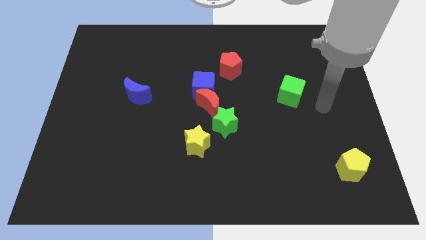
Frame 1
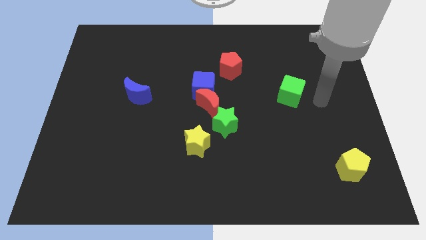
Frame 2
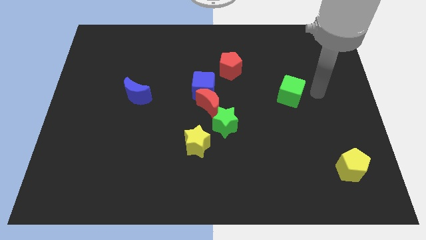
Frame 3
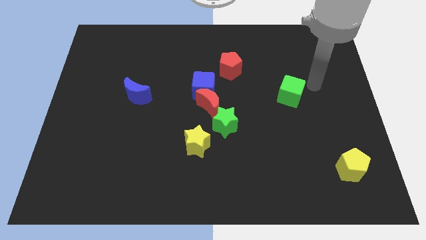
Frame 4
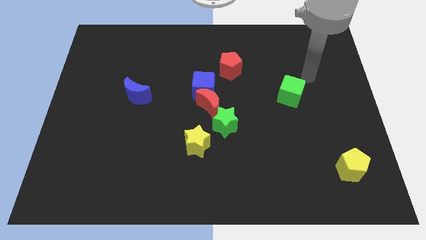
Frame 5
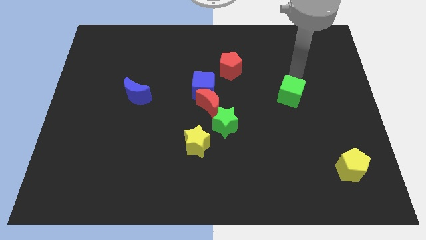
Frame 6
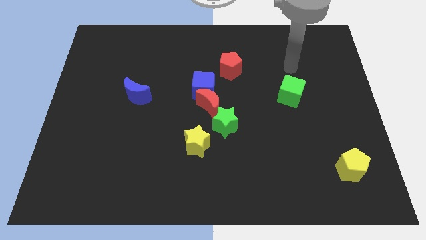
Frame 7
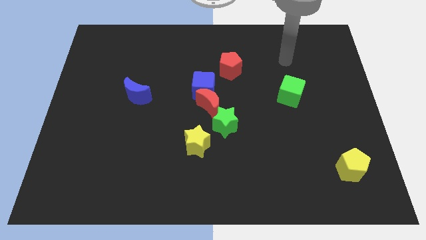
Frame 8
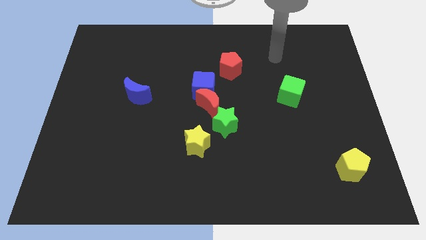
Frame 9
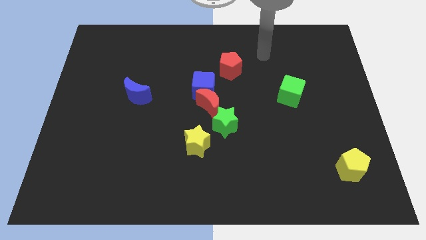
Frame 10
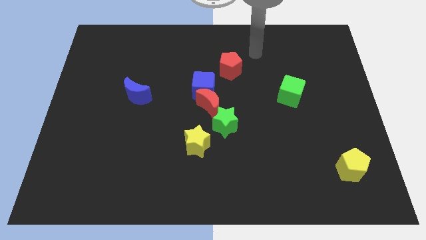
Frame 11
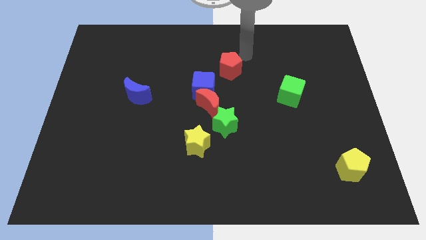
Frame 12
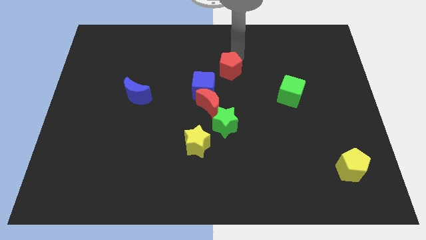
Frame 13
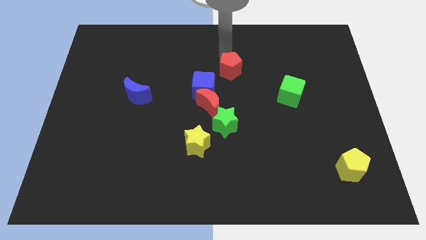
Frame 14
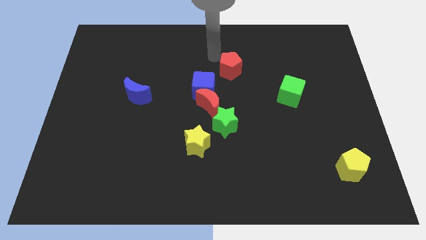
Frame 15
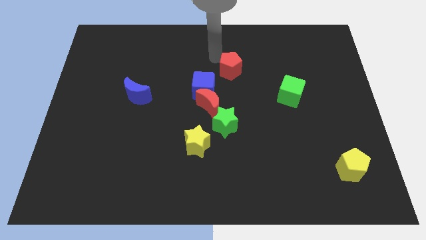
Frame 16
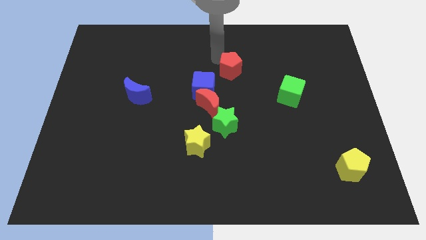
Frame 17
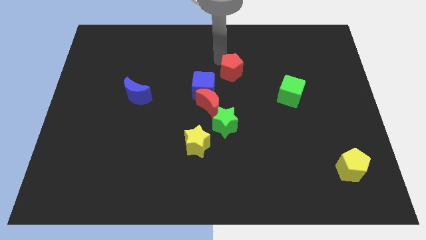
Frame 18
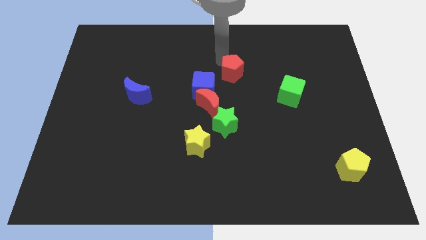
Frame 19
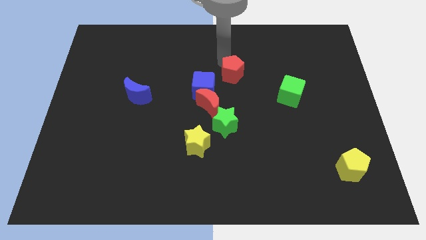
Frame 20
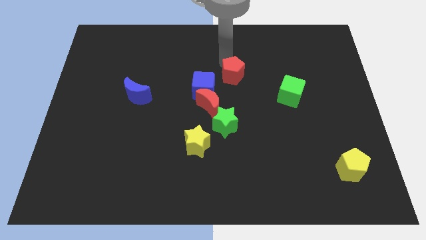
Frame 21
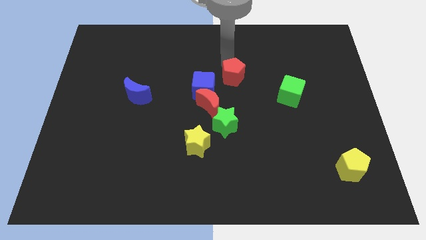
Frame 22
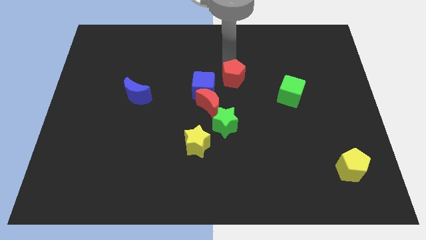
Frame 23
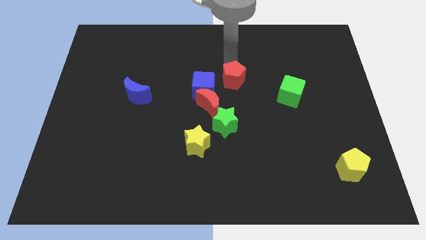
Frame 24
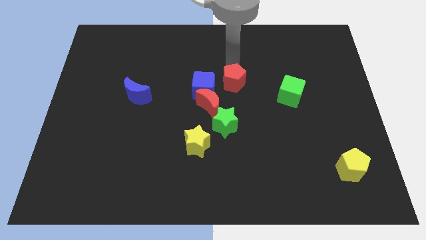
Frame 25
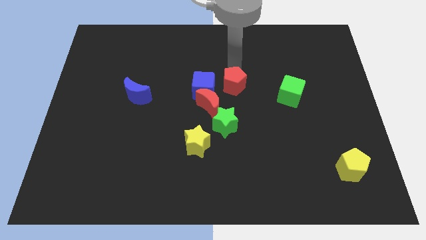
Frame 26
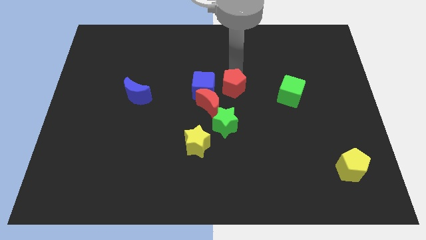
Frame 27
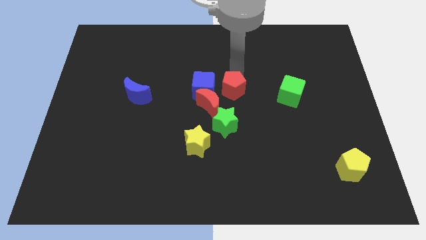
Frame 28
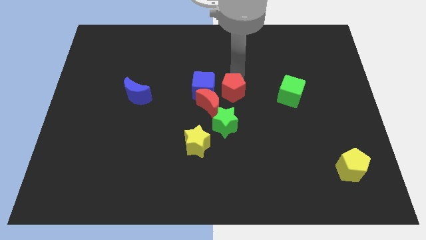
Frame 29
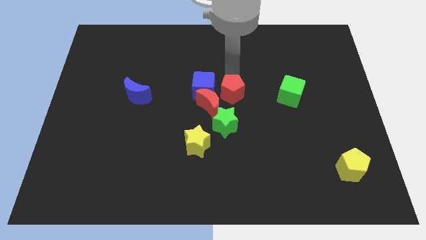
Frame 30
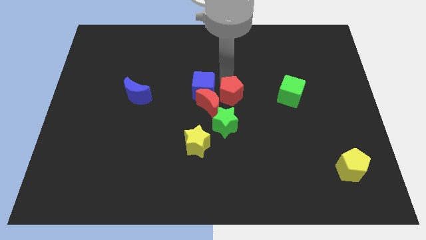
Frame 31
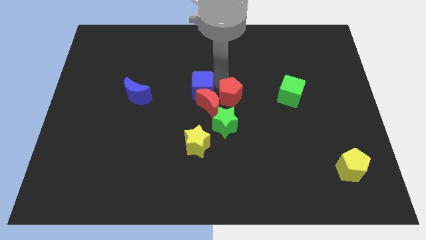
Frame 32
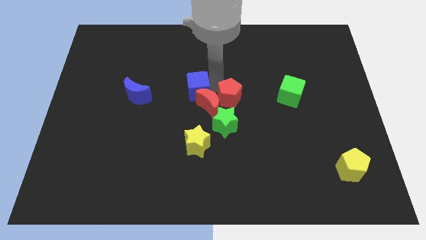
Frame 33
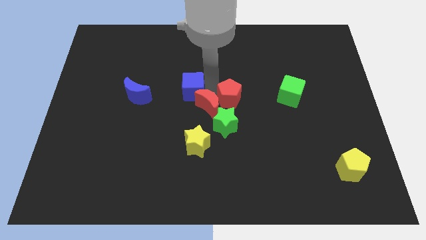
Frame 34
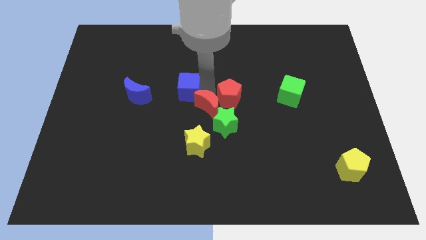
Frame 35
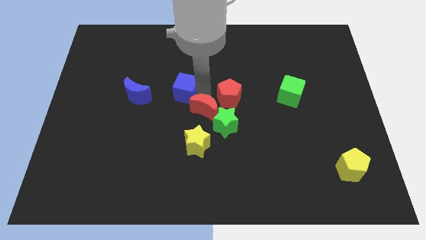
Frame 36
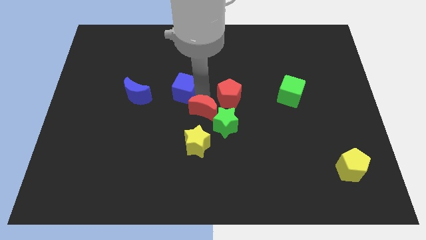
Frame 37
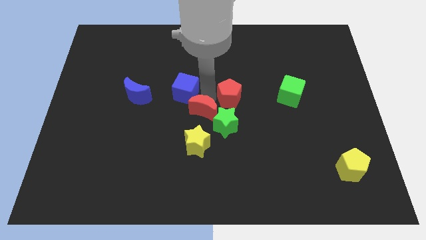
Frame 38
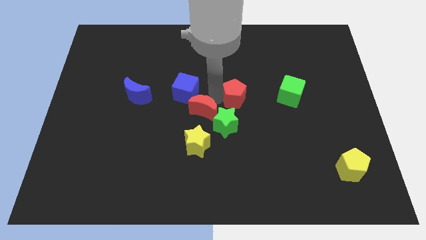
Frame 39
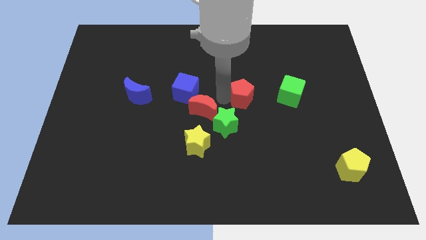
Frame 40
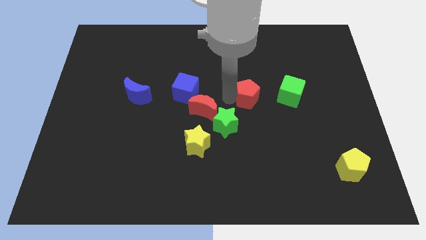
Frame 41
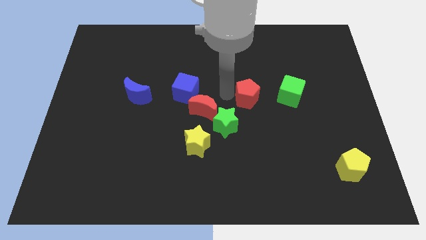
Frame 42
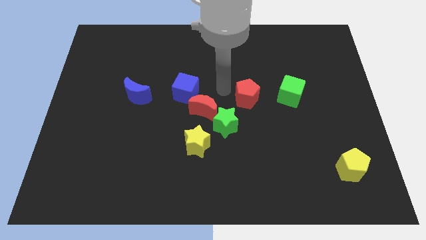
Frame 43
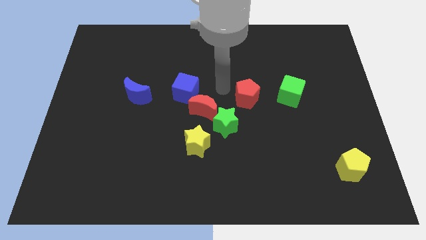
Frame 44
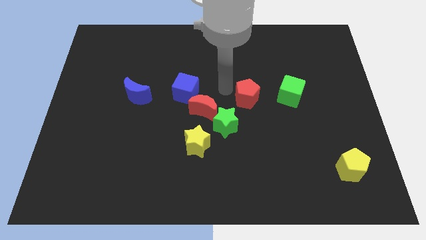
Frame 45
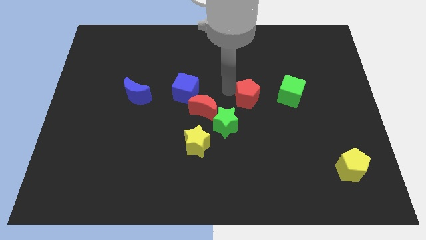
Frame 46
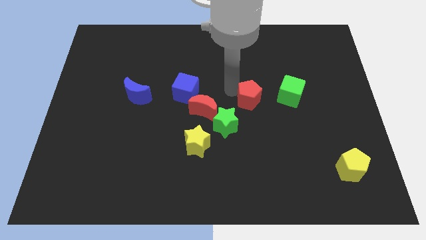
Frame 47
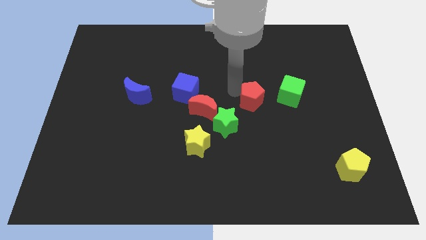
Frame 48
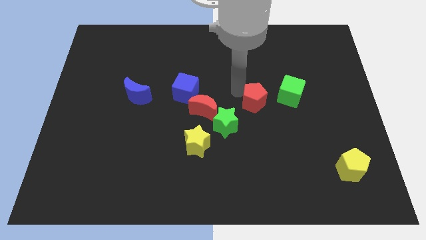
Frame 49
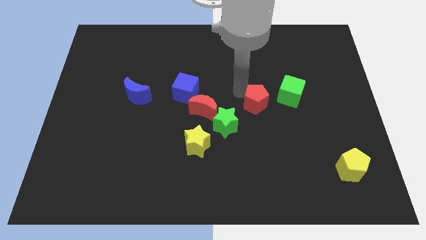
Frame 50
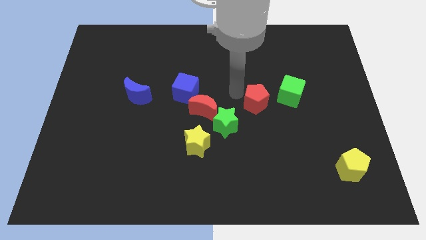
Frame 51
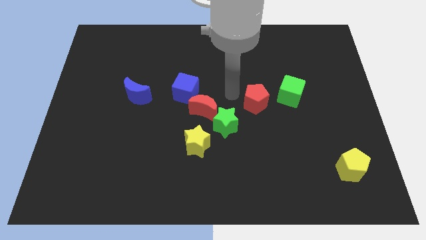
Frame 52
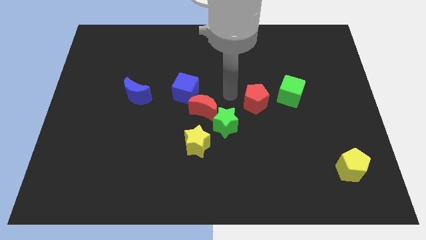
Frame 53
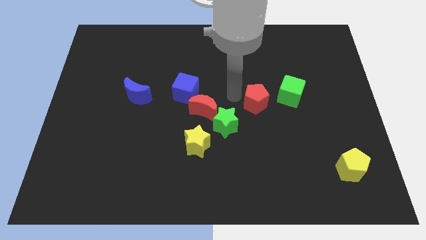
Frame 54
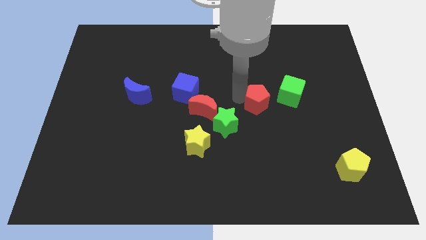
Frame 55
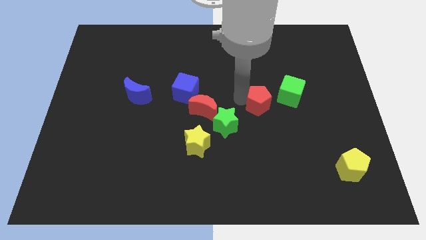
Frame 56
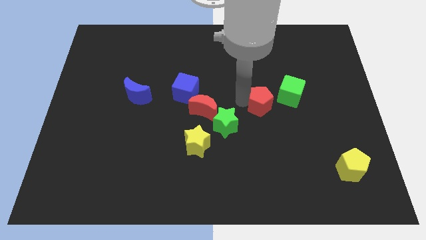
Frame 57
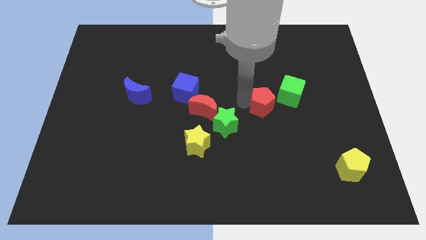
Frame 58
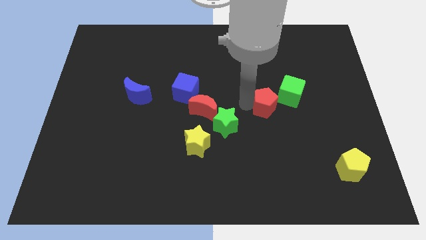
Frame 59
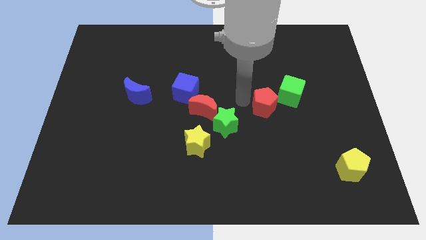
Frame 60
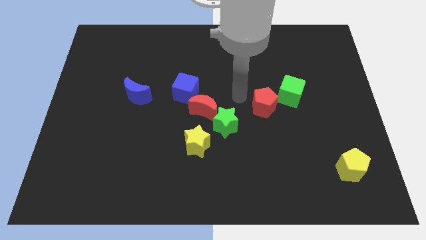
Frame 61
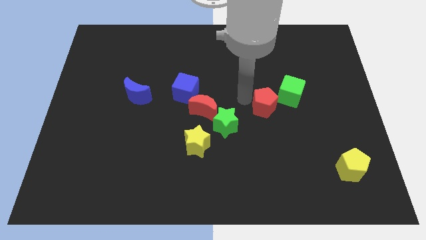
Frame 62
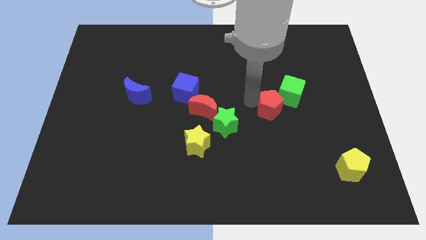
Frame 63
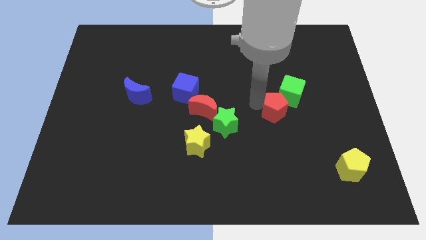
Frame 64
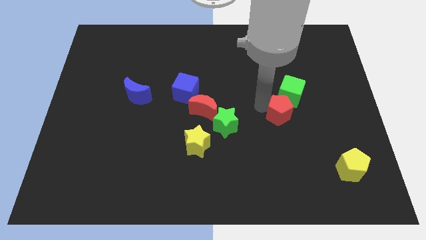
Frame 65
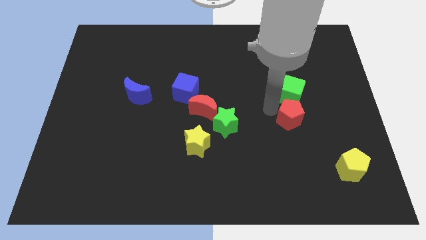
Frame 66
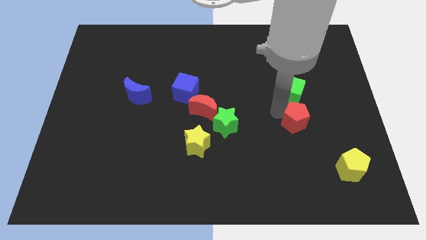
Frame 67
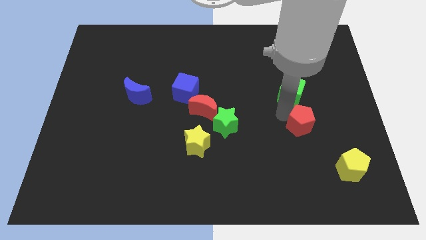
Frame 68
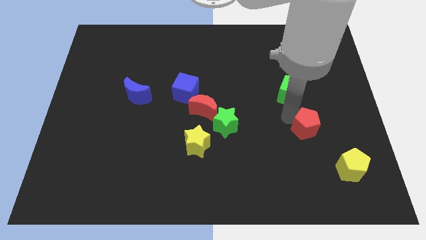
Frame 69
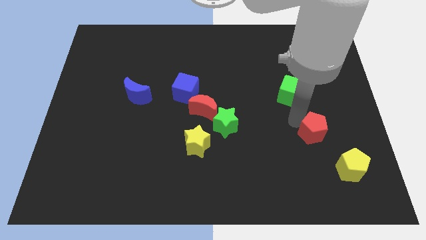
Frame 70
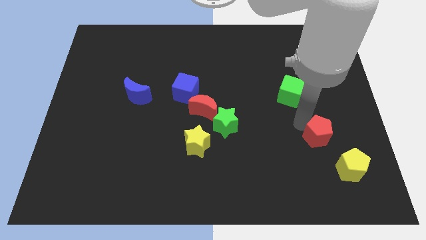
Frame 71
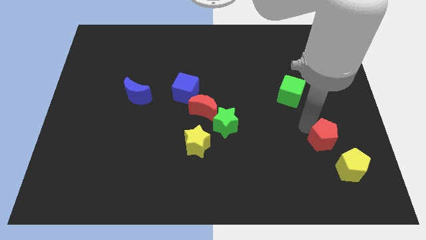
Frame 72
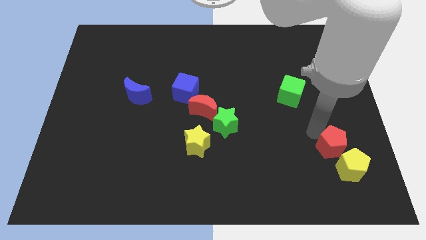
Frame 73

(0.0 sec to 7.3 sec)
move the red pentagon to the yellow pentagon
